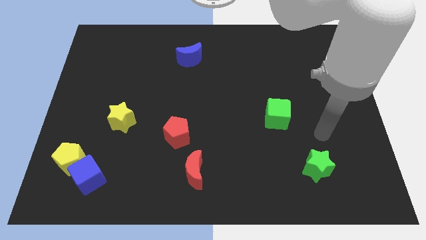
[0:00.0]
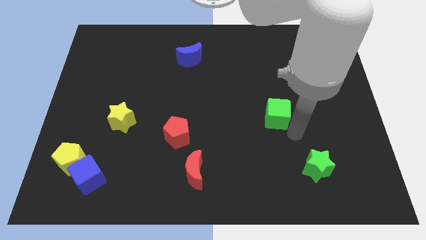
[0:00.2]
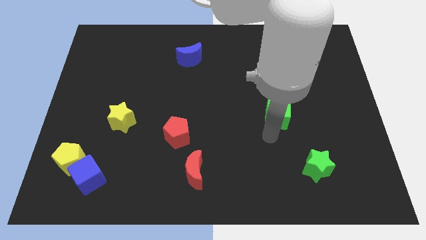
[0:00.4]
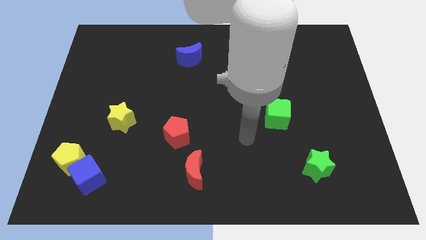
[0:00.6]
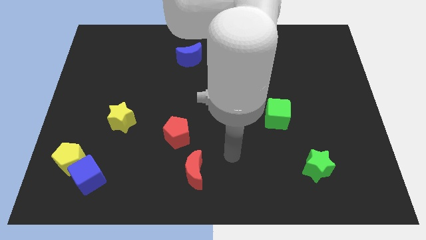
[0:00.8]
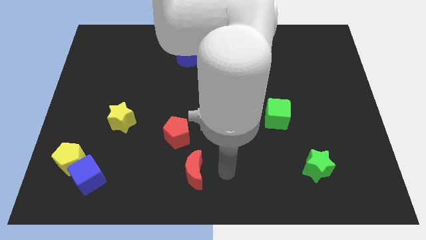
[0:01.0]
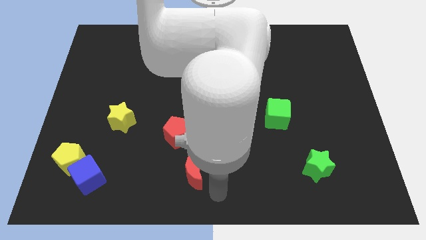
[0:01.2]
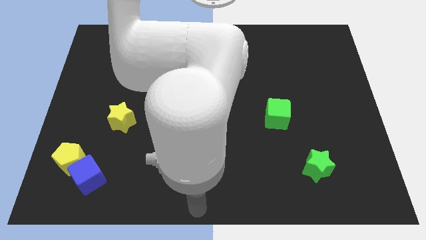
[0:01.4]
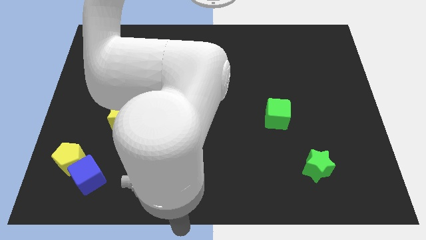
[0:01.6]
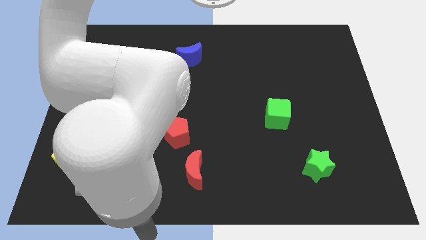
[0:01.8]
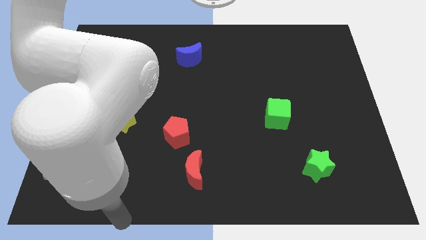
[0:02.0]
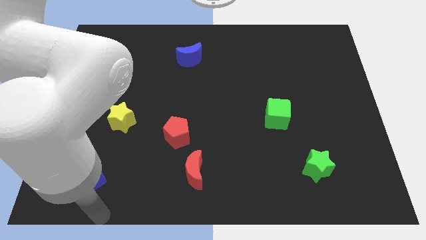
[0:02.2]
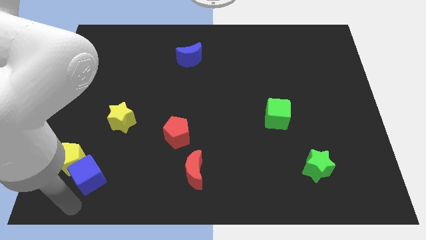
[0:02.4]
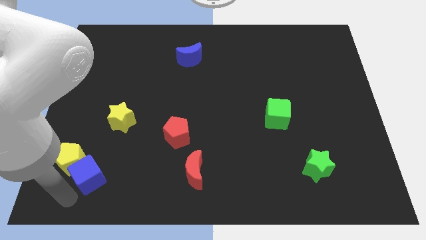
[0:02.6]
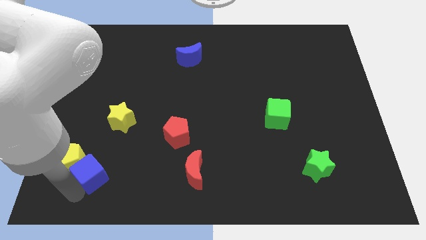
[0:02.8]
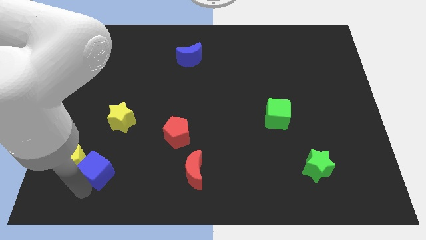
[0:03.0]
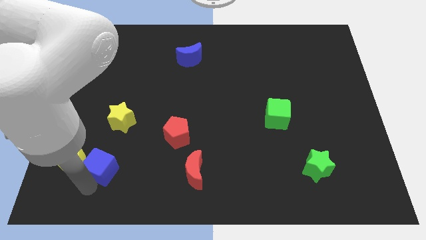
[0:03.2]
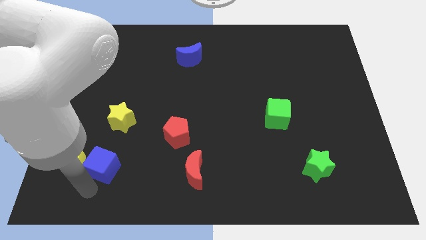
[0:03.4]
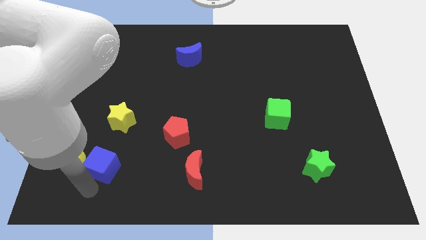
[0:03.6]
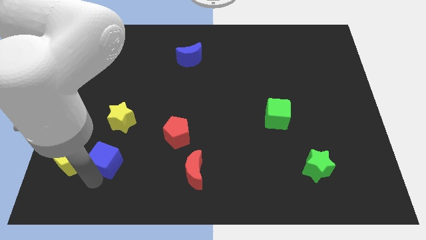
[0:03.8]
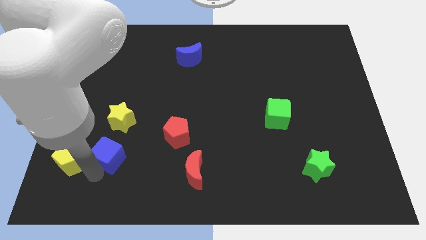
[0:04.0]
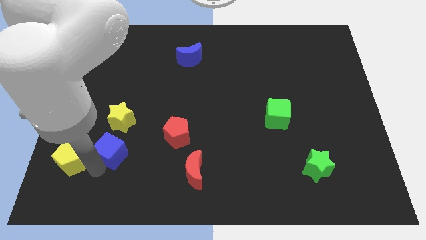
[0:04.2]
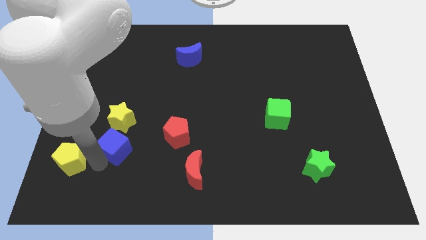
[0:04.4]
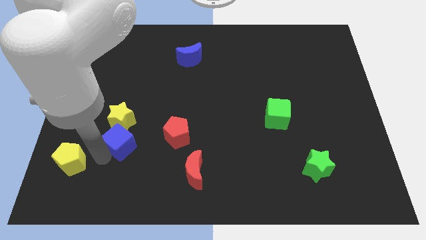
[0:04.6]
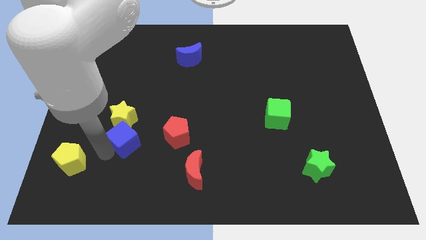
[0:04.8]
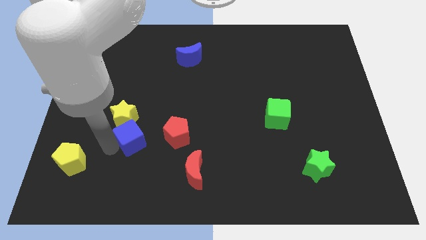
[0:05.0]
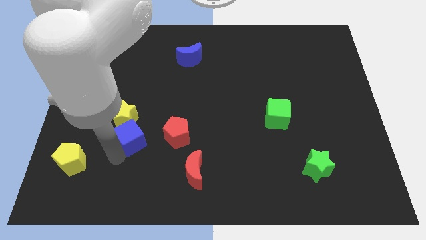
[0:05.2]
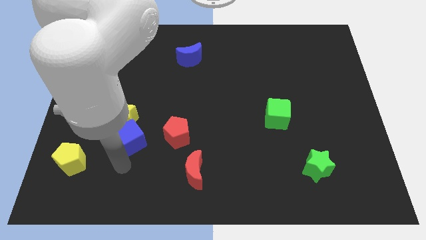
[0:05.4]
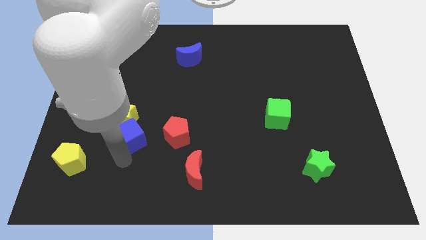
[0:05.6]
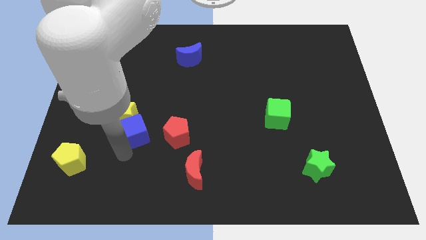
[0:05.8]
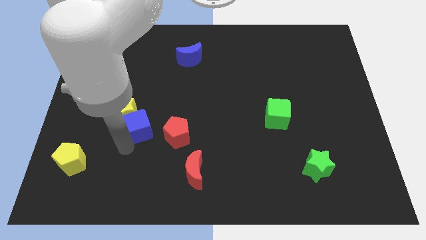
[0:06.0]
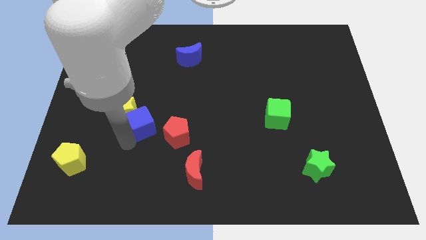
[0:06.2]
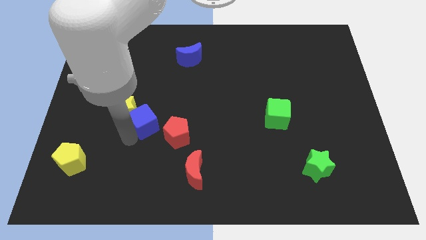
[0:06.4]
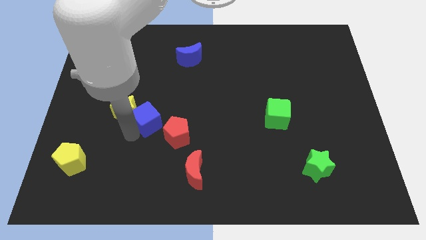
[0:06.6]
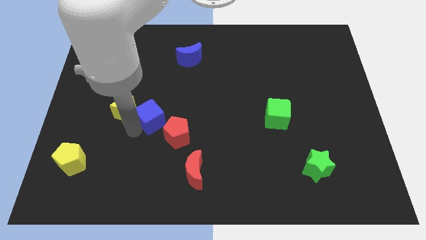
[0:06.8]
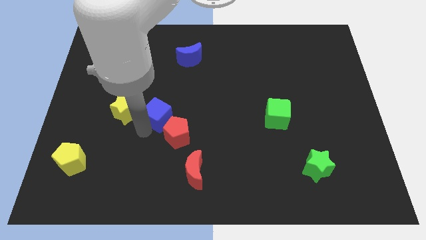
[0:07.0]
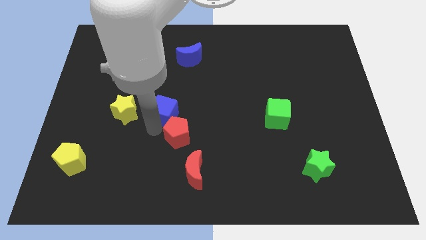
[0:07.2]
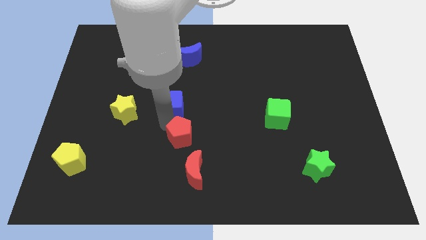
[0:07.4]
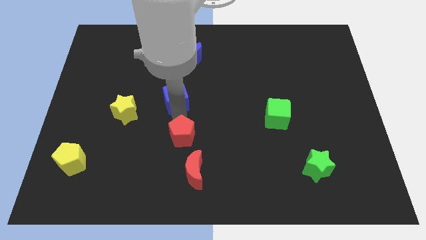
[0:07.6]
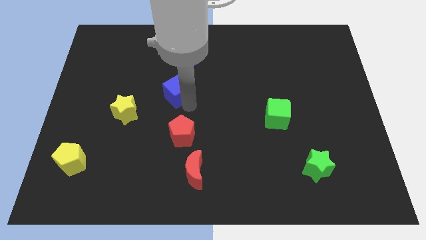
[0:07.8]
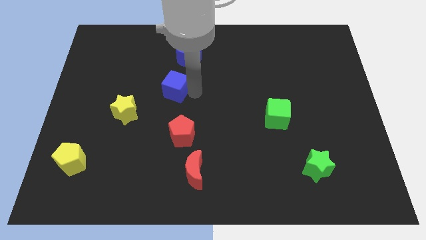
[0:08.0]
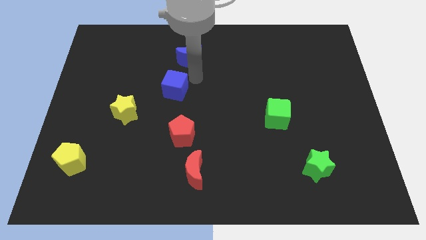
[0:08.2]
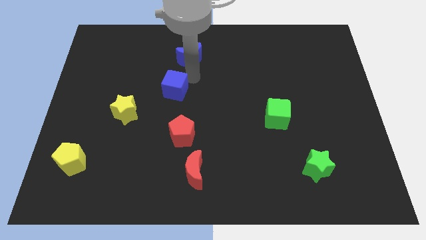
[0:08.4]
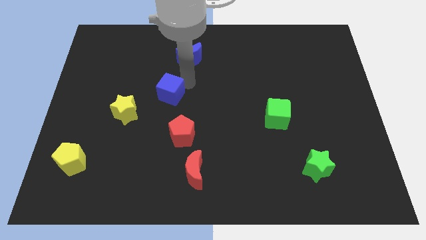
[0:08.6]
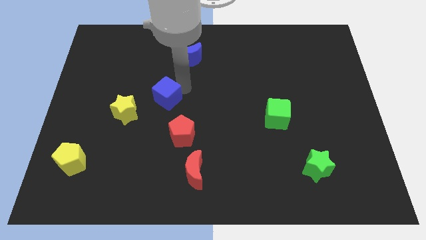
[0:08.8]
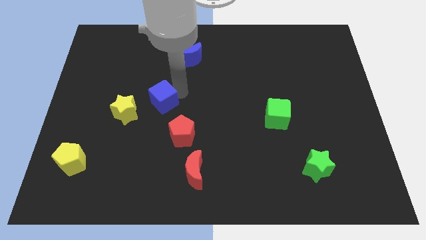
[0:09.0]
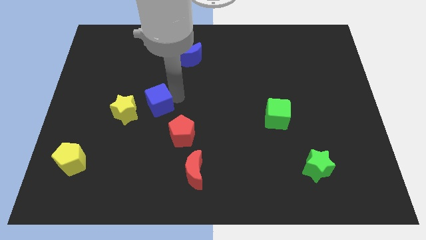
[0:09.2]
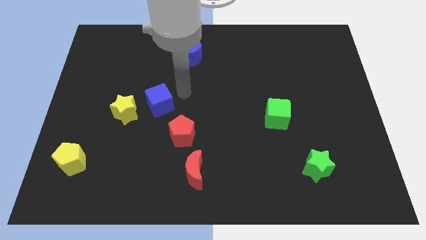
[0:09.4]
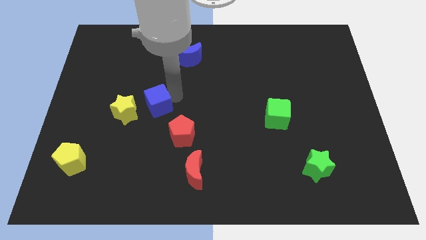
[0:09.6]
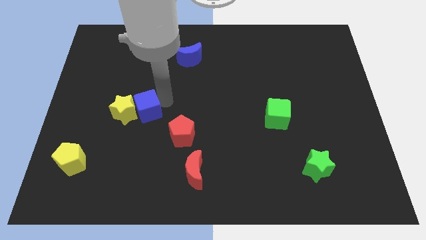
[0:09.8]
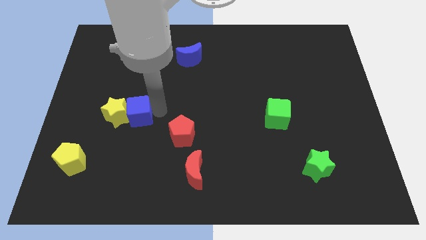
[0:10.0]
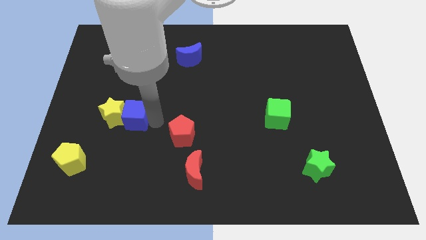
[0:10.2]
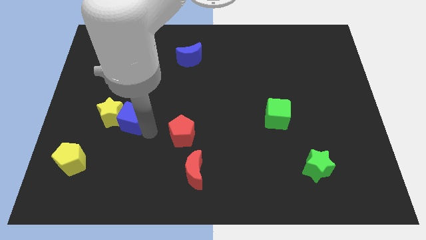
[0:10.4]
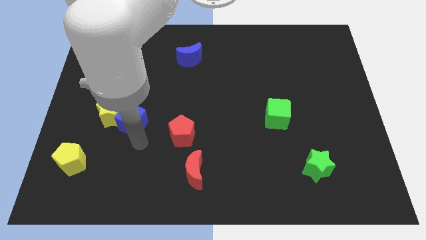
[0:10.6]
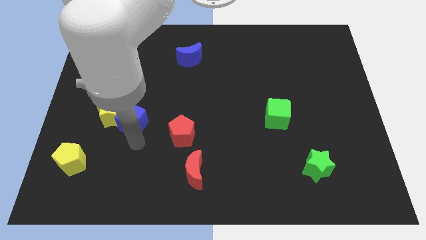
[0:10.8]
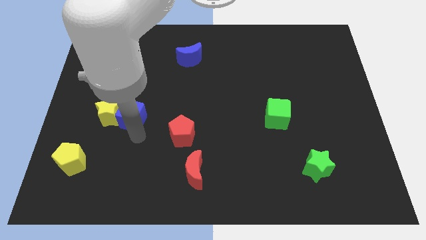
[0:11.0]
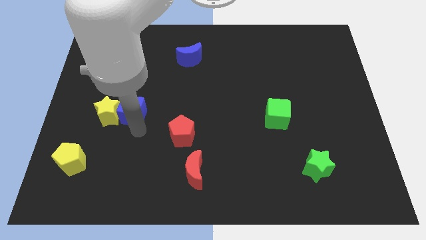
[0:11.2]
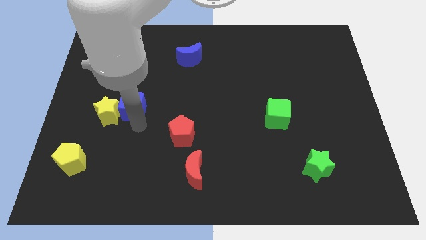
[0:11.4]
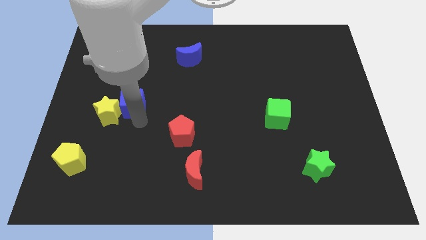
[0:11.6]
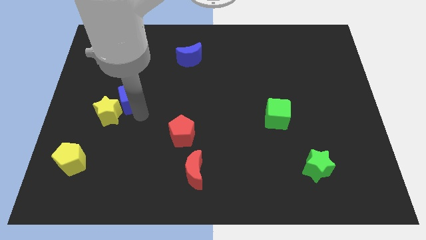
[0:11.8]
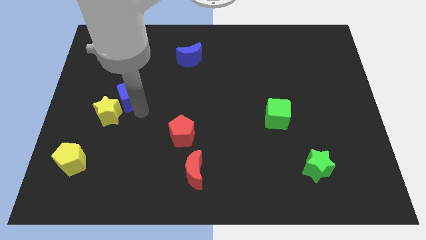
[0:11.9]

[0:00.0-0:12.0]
move the blue cube to the top of the yellow star

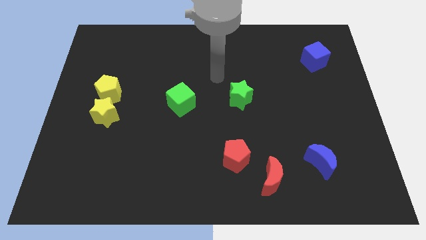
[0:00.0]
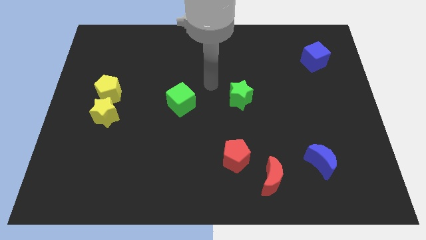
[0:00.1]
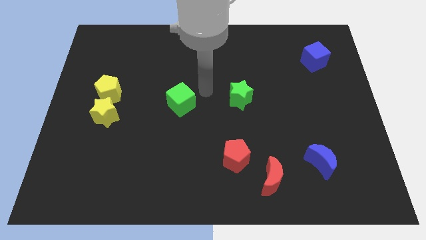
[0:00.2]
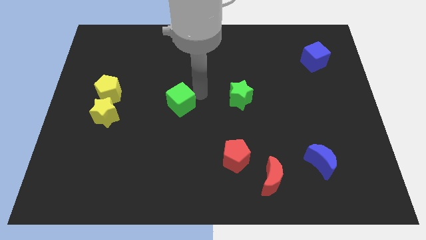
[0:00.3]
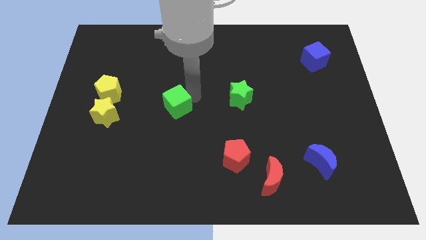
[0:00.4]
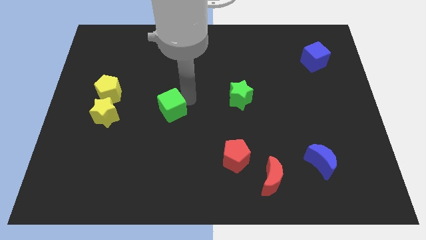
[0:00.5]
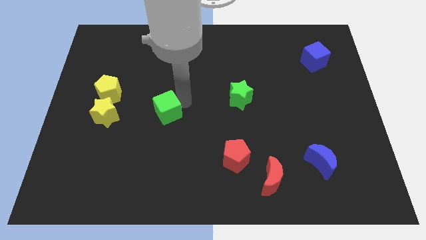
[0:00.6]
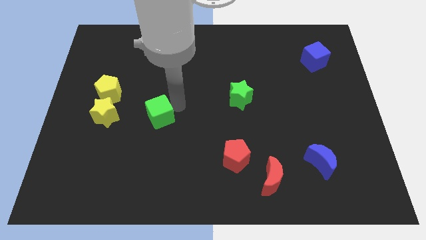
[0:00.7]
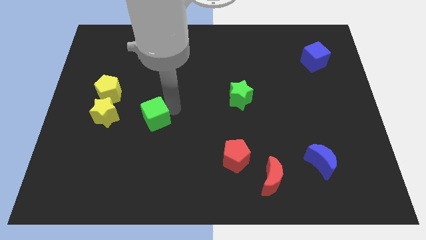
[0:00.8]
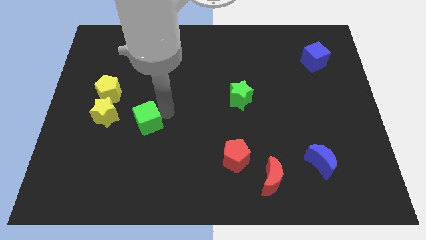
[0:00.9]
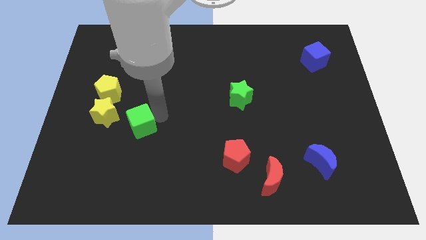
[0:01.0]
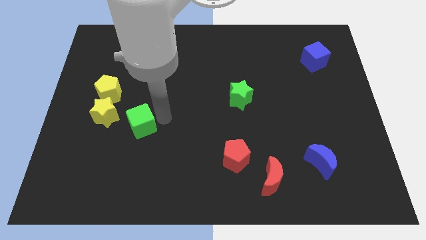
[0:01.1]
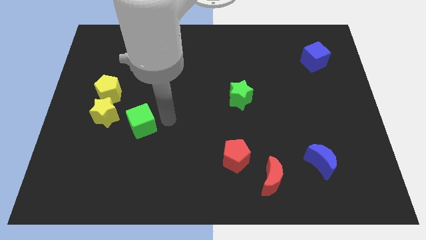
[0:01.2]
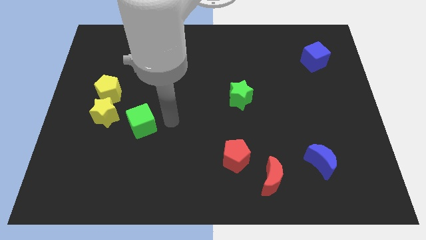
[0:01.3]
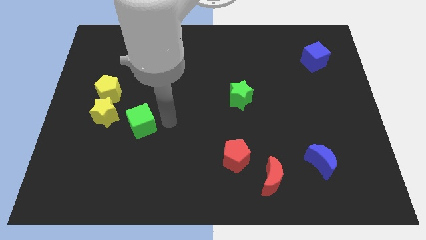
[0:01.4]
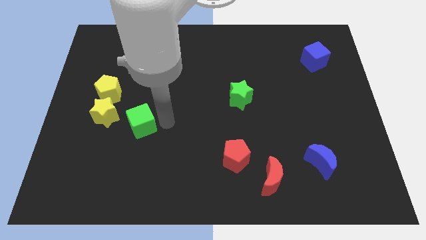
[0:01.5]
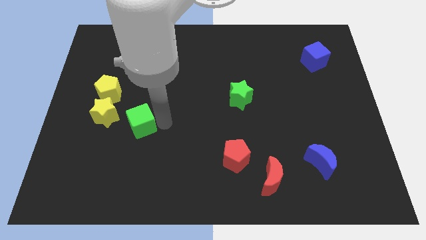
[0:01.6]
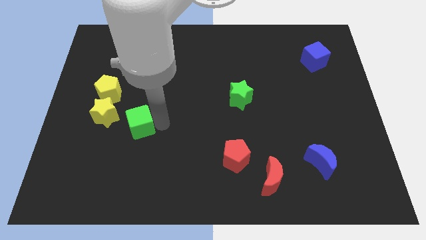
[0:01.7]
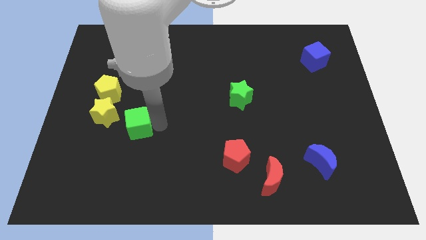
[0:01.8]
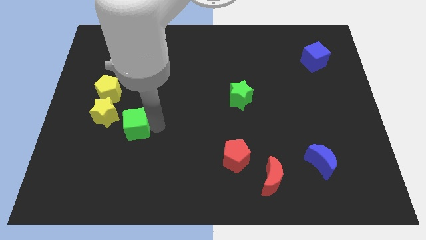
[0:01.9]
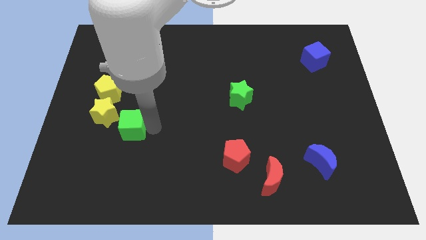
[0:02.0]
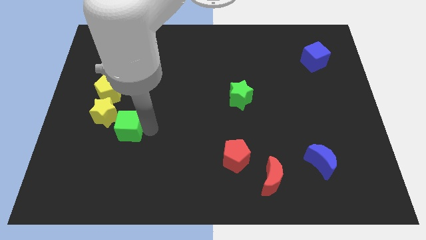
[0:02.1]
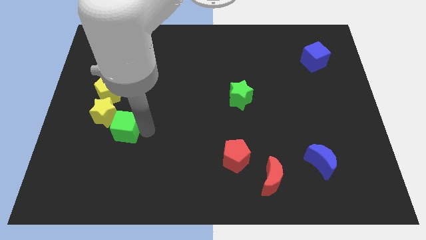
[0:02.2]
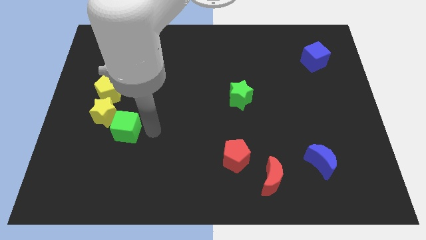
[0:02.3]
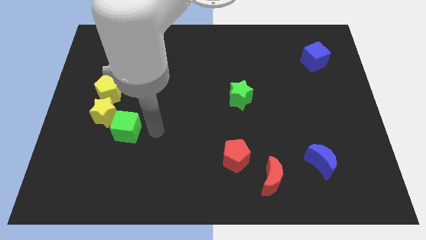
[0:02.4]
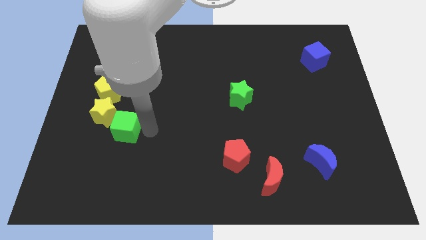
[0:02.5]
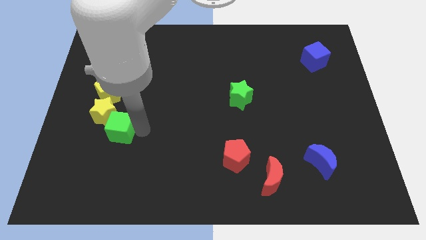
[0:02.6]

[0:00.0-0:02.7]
put the green cube to the bottom side of the yellow pentagon
